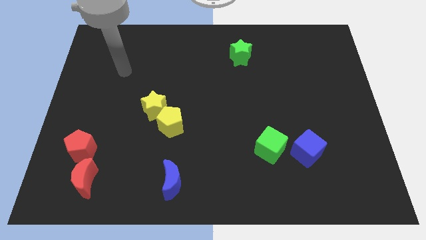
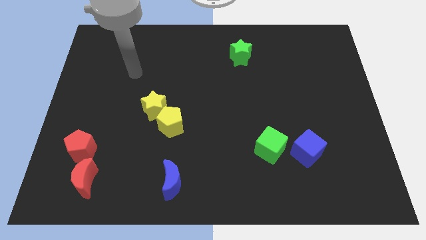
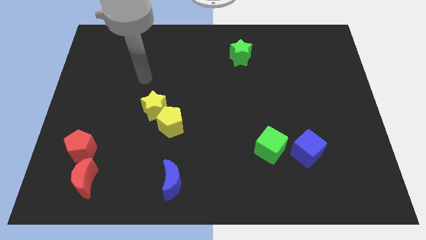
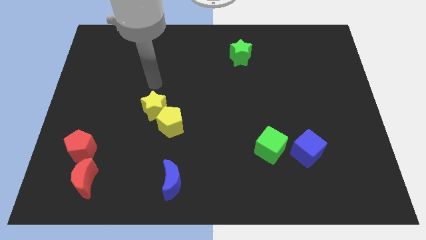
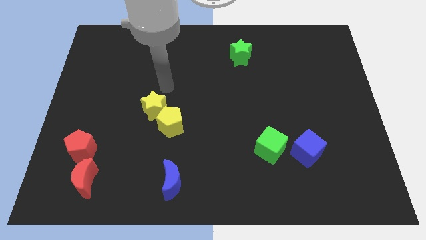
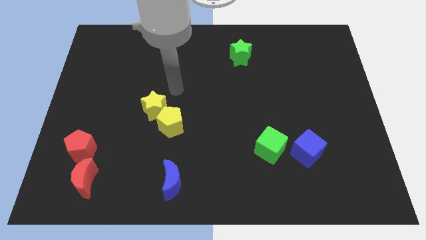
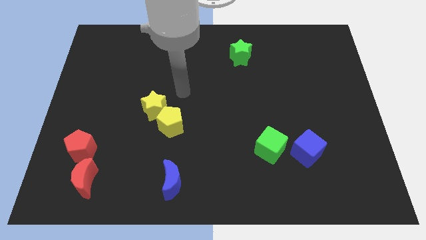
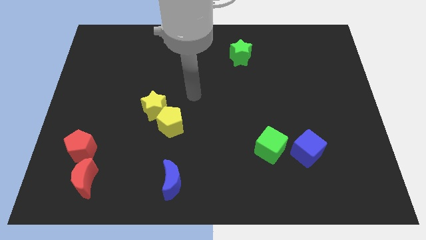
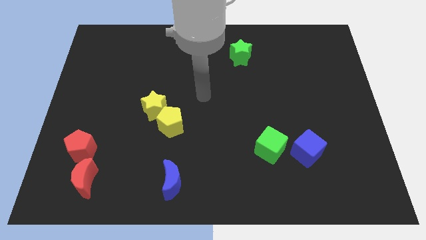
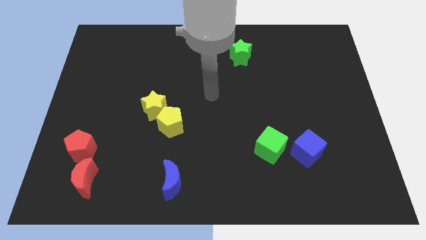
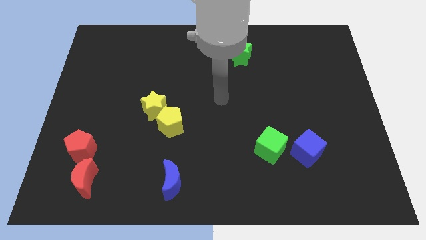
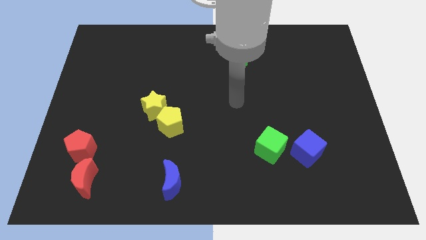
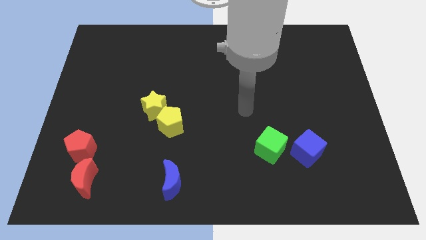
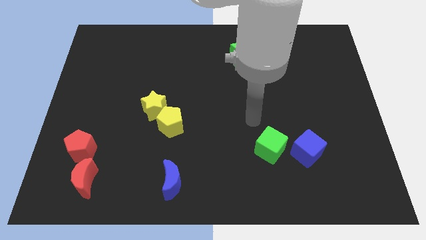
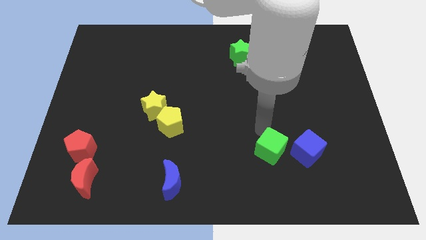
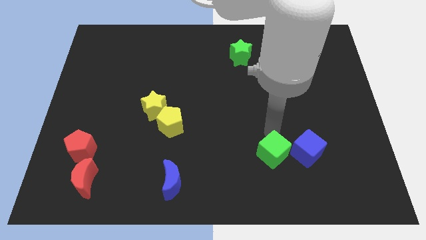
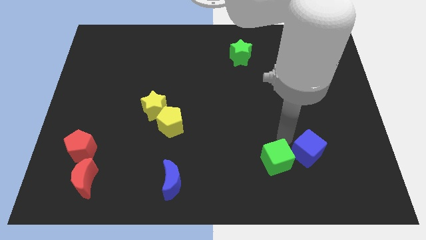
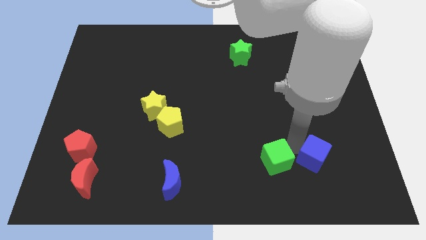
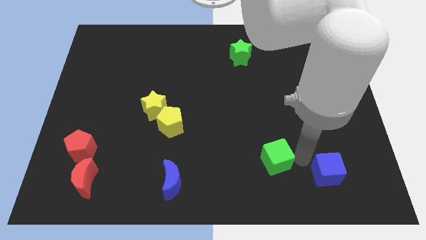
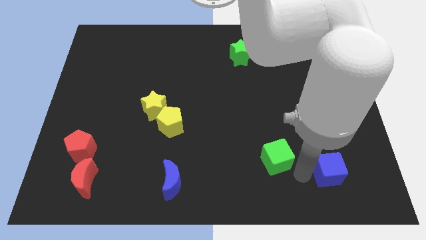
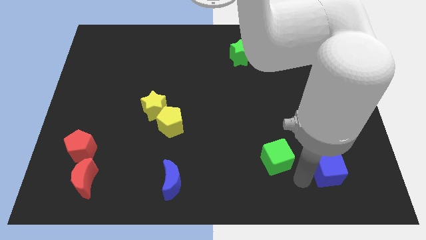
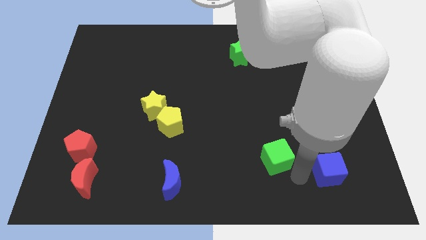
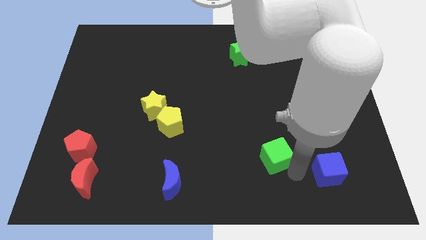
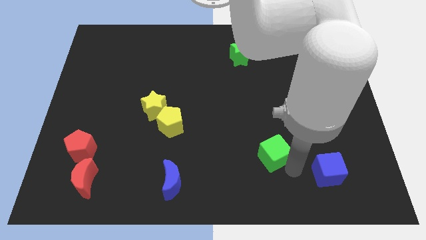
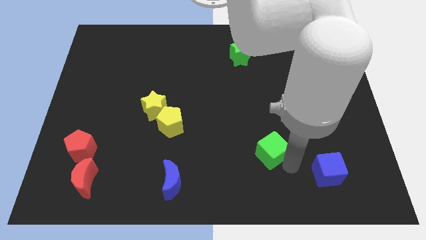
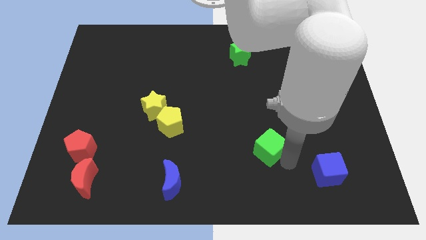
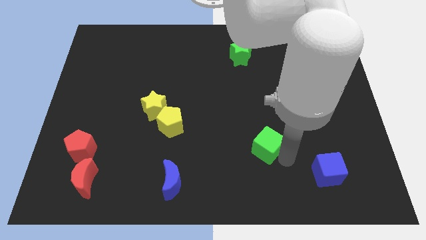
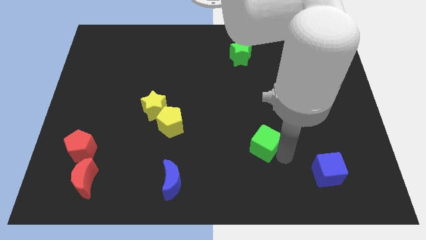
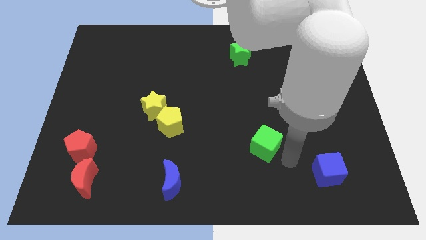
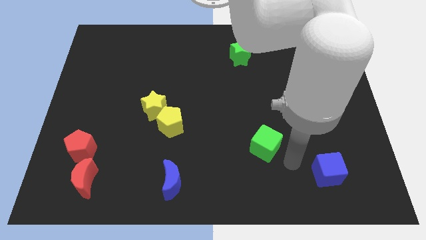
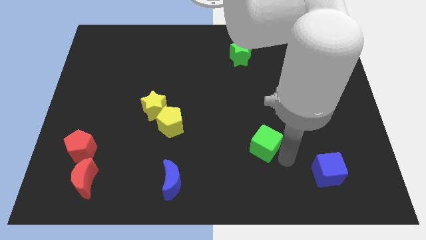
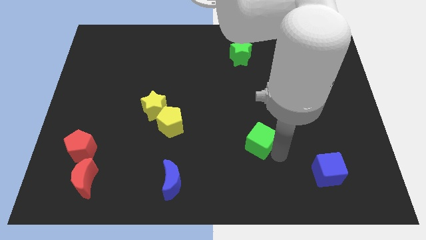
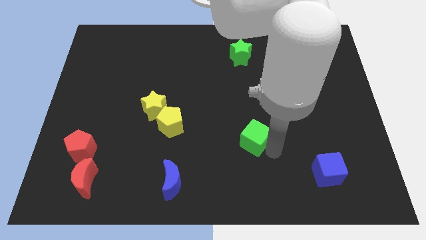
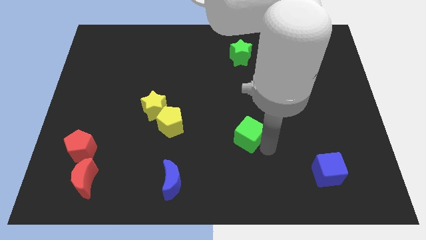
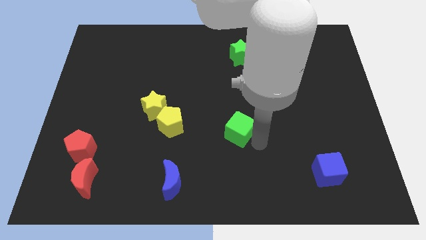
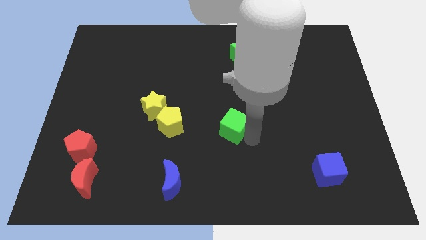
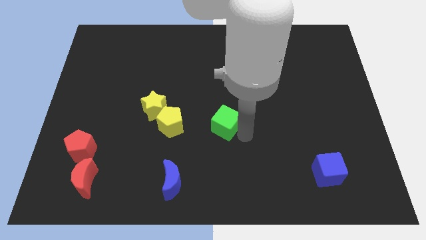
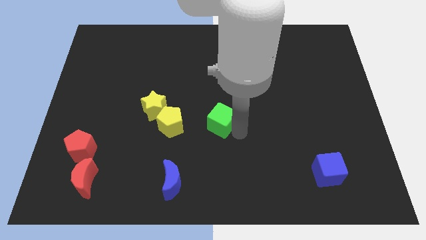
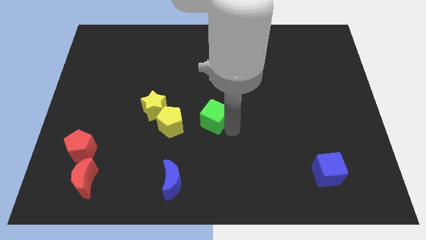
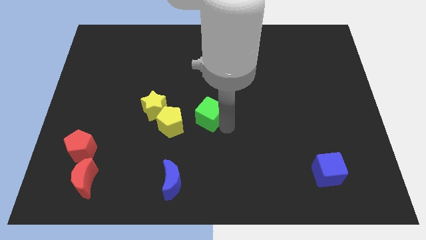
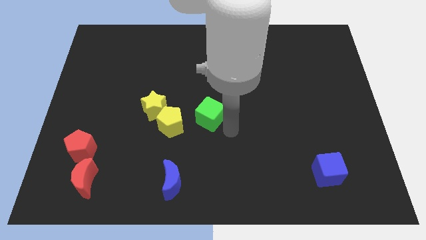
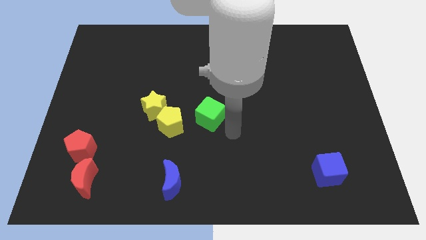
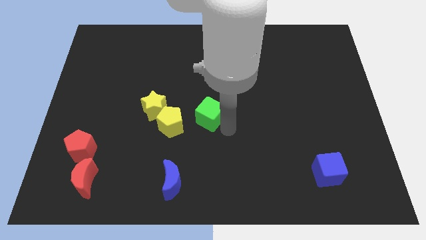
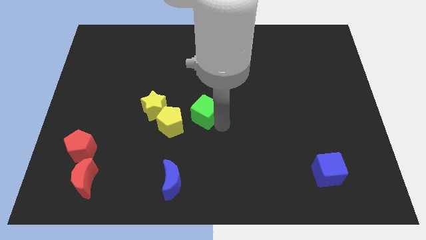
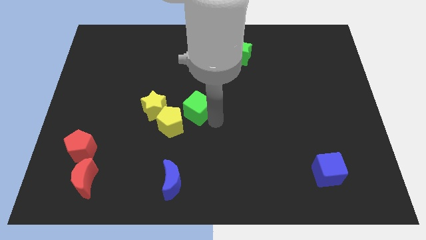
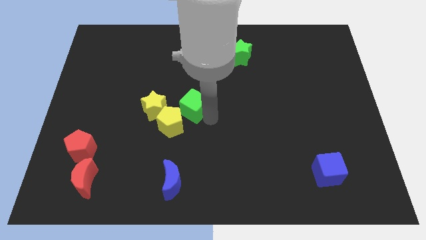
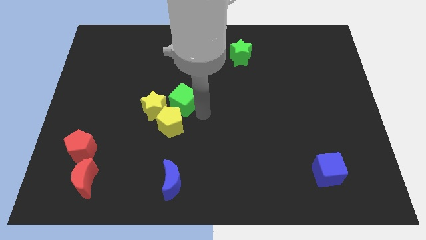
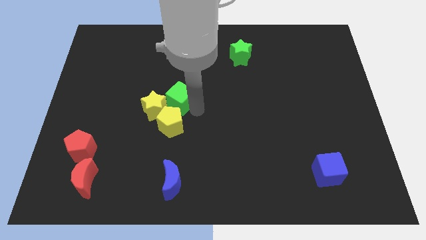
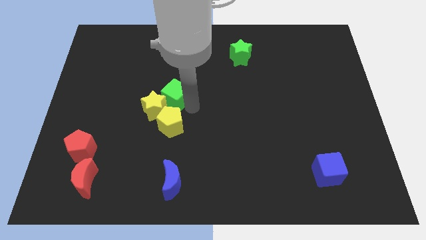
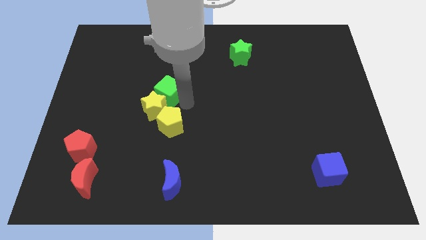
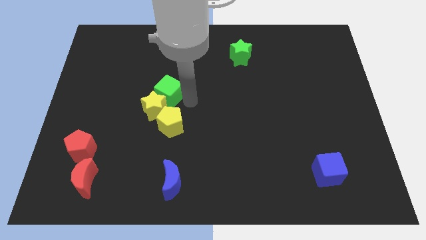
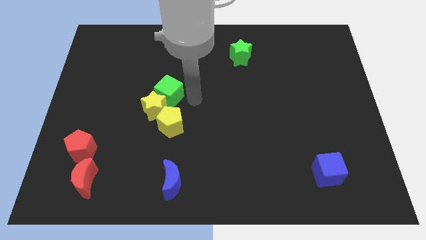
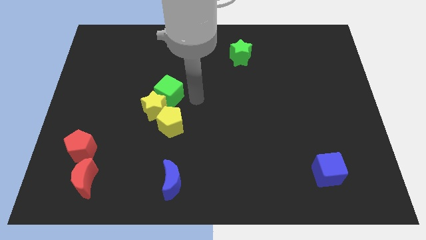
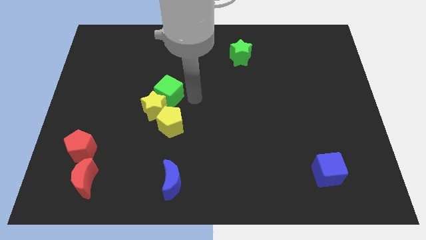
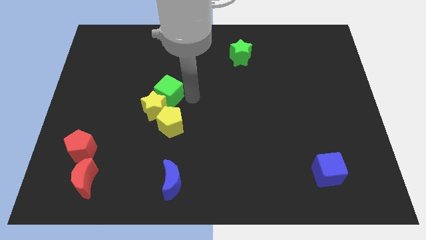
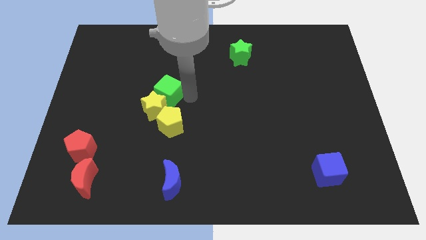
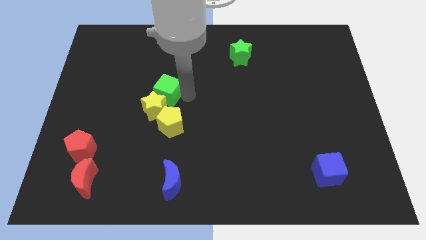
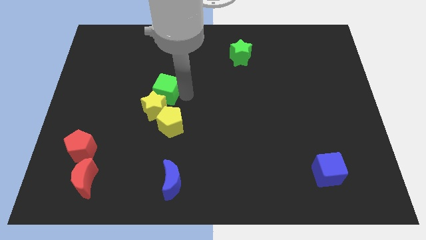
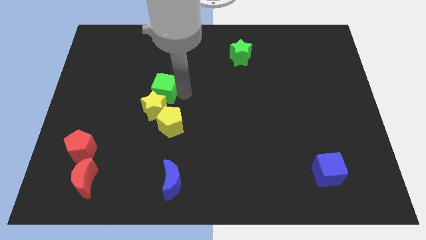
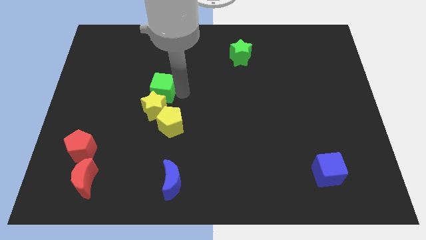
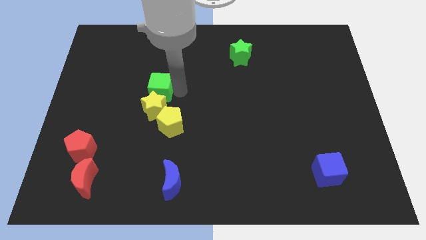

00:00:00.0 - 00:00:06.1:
put the green cube diagonally up and to the left of the yellow star
